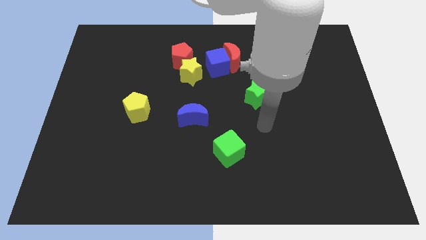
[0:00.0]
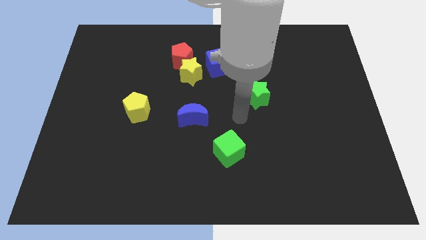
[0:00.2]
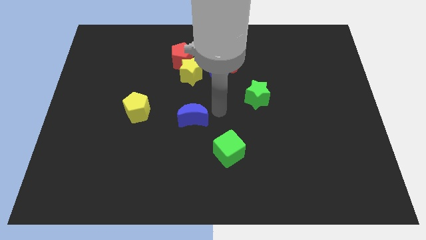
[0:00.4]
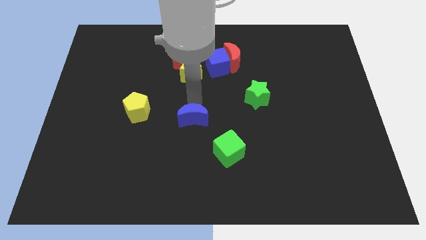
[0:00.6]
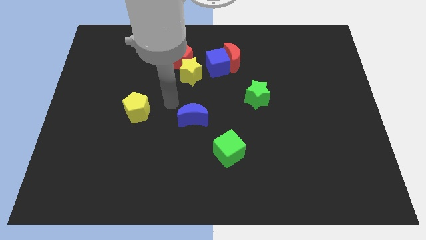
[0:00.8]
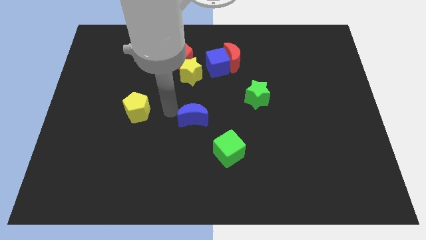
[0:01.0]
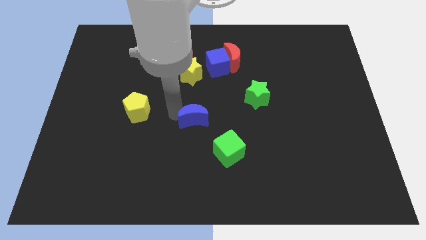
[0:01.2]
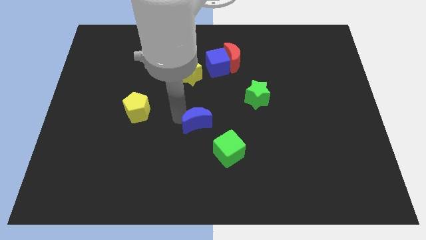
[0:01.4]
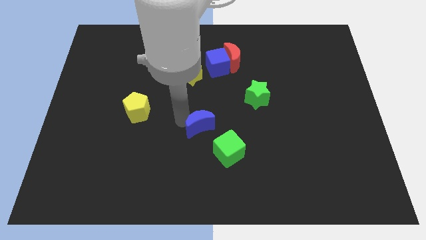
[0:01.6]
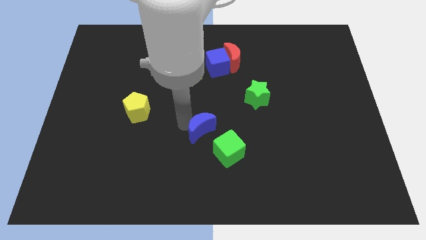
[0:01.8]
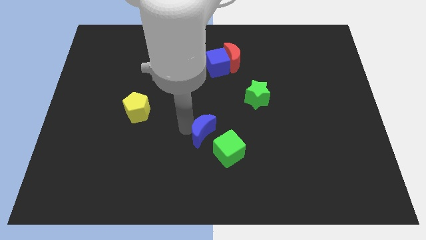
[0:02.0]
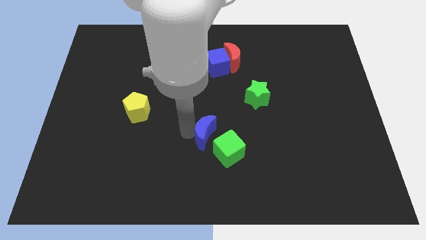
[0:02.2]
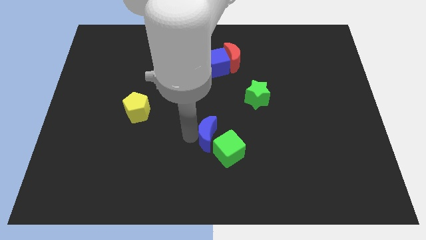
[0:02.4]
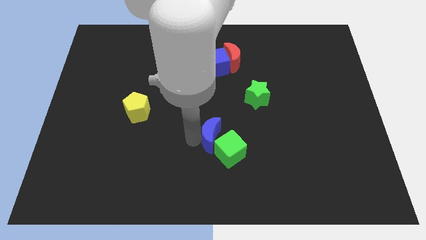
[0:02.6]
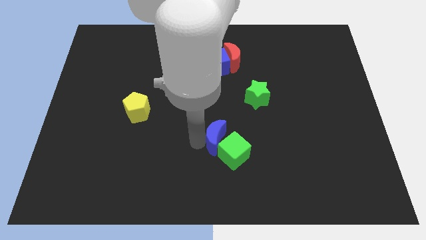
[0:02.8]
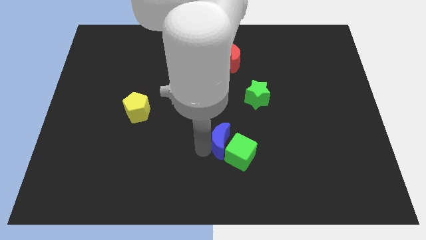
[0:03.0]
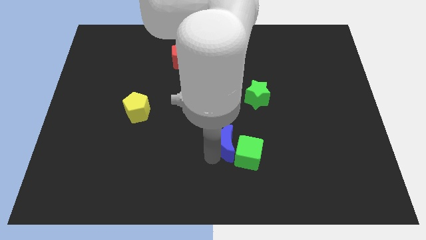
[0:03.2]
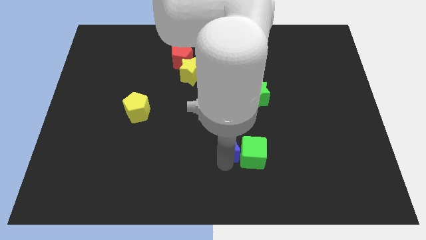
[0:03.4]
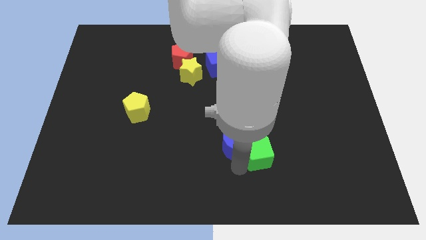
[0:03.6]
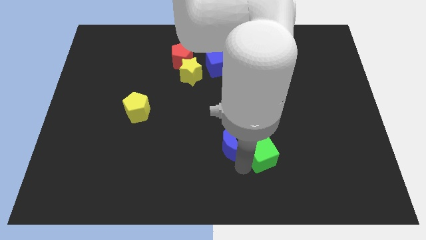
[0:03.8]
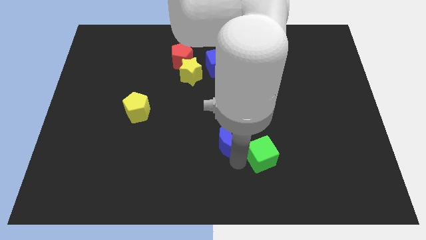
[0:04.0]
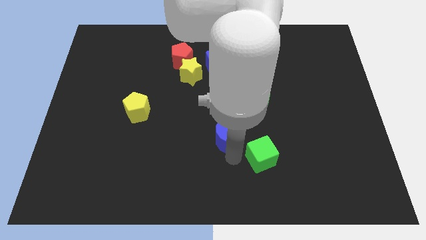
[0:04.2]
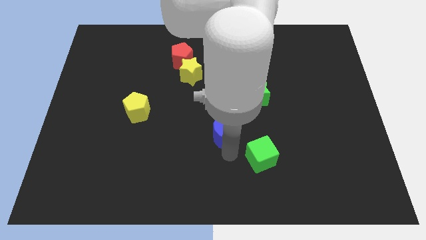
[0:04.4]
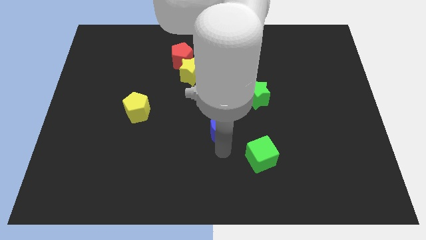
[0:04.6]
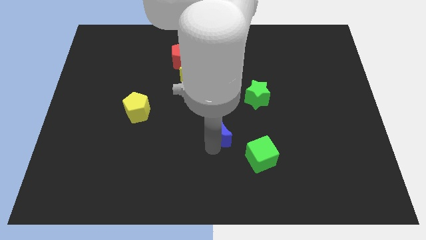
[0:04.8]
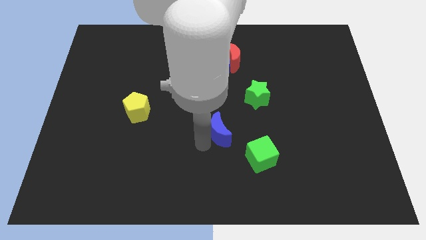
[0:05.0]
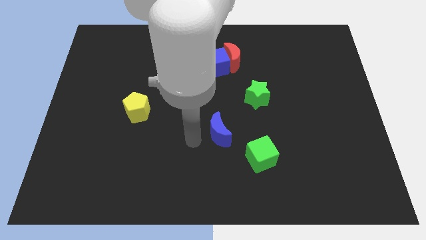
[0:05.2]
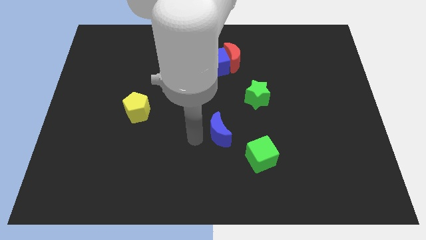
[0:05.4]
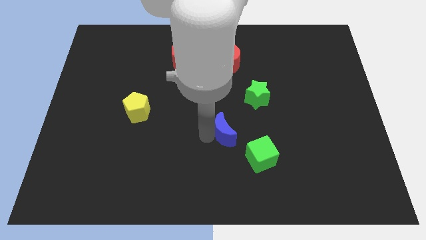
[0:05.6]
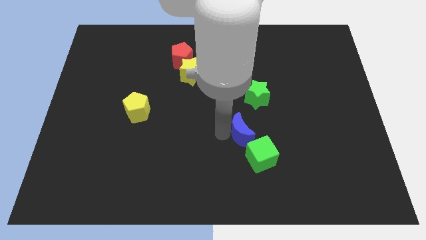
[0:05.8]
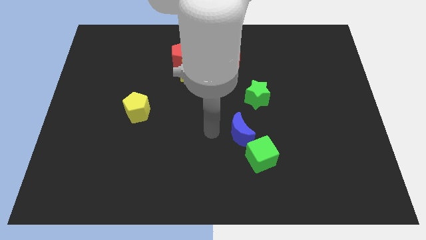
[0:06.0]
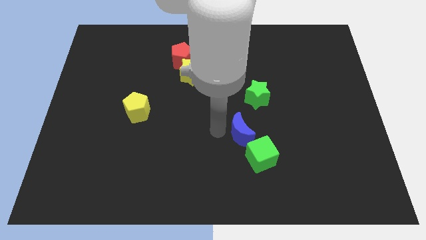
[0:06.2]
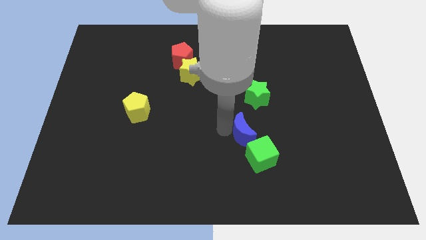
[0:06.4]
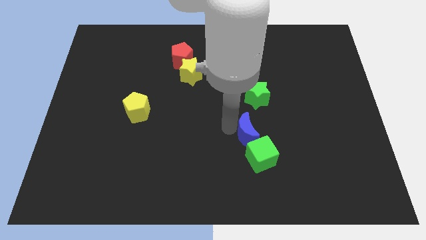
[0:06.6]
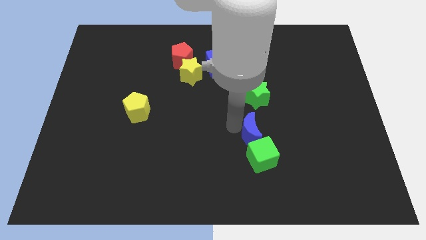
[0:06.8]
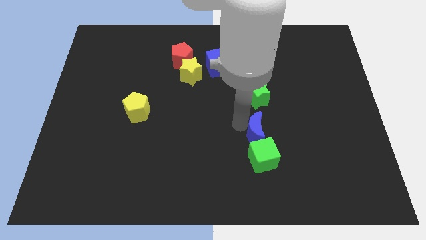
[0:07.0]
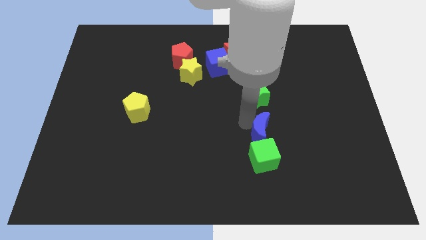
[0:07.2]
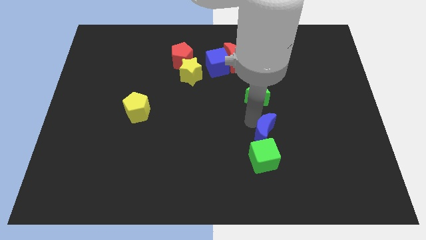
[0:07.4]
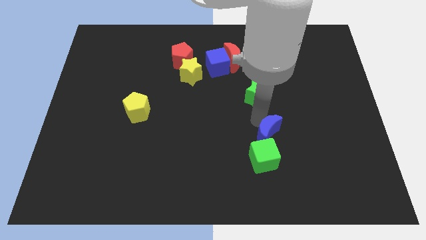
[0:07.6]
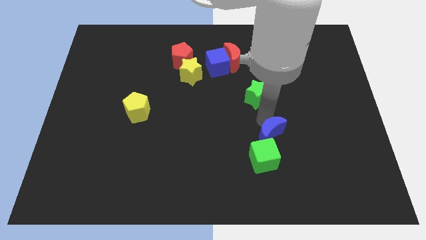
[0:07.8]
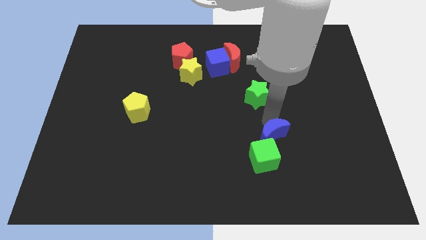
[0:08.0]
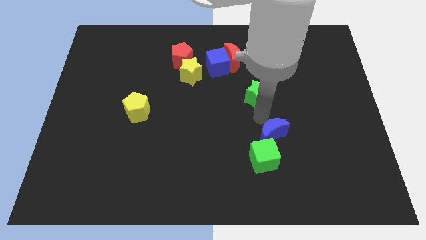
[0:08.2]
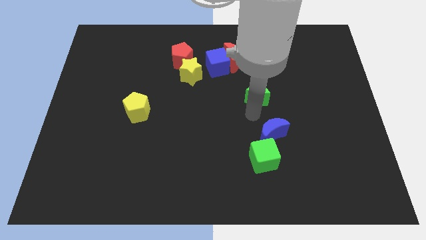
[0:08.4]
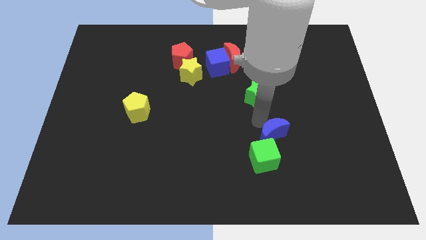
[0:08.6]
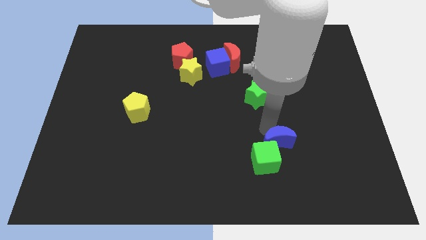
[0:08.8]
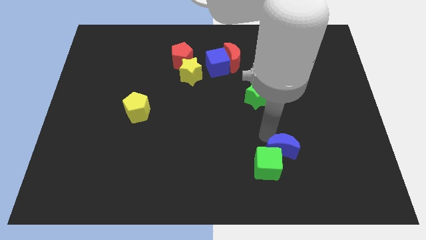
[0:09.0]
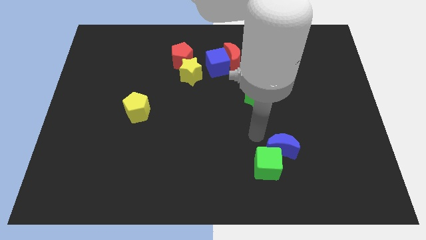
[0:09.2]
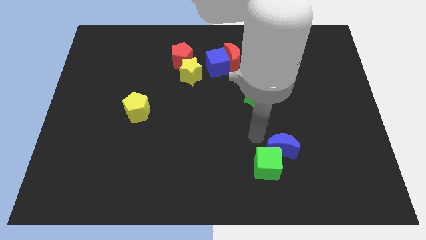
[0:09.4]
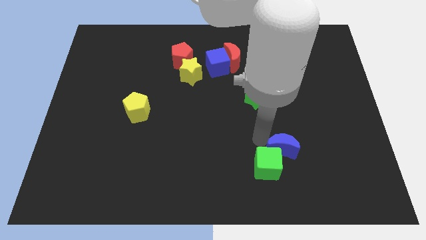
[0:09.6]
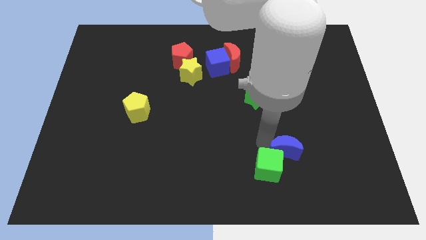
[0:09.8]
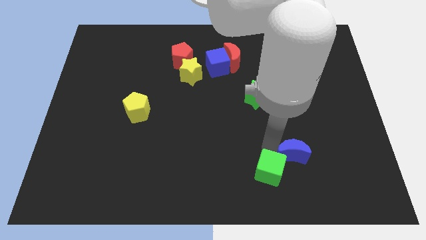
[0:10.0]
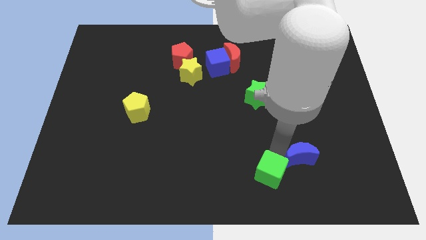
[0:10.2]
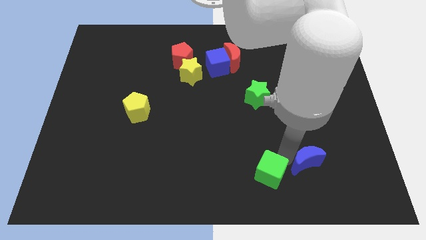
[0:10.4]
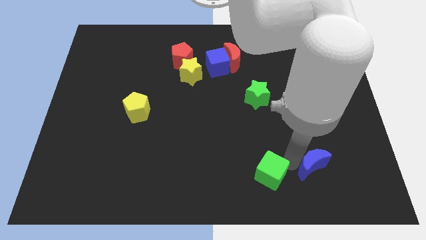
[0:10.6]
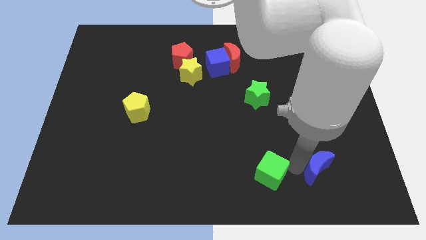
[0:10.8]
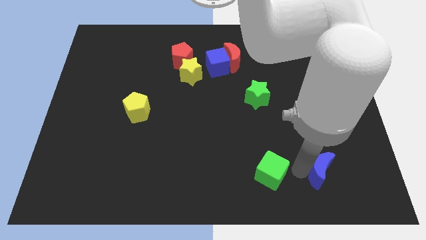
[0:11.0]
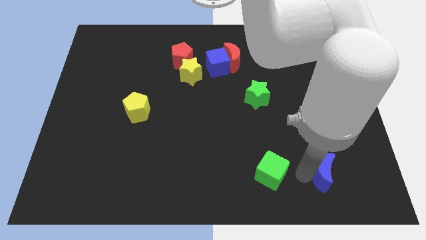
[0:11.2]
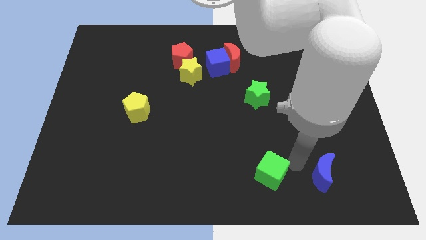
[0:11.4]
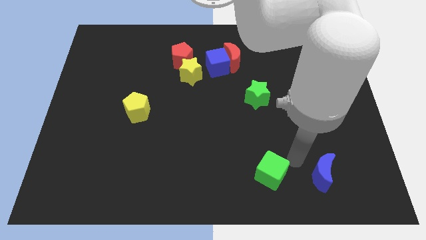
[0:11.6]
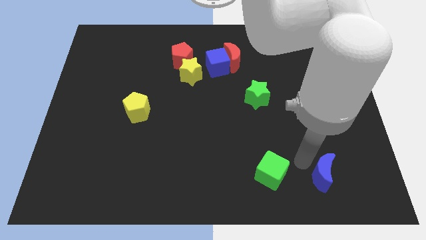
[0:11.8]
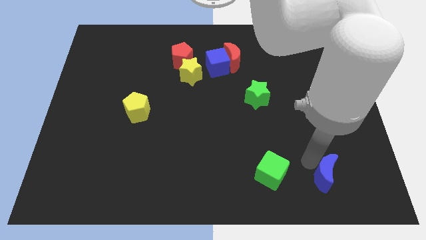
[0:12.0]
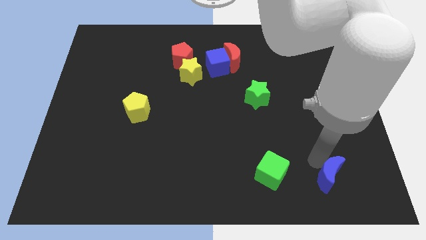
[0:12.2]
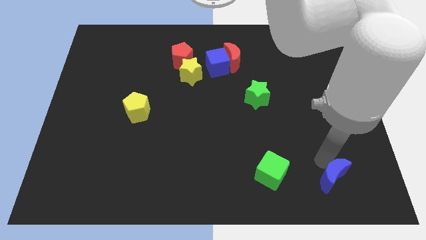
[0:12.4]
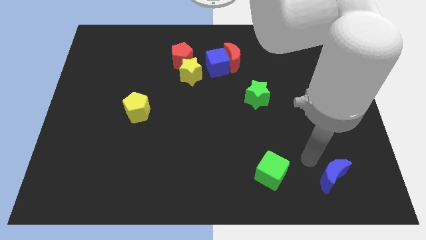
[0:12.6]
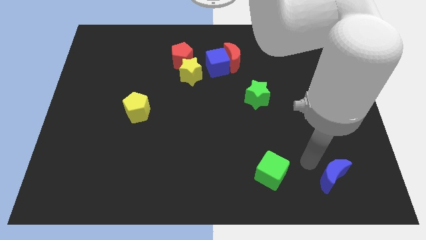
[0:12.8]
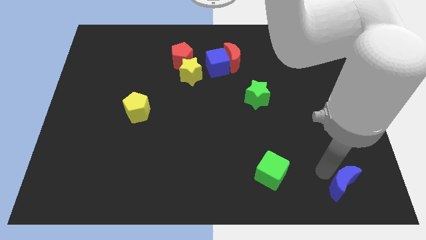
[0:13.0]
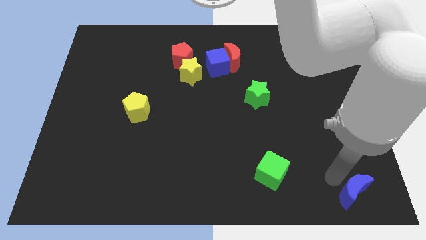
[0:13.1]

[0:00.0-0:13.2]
put the blue moon to the bottom right of the board
